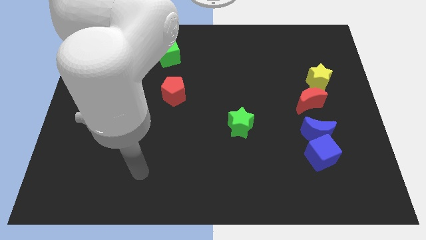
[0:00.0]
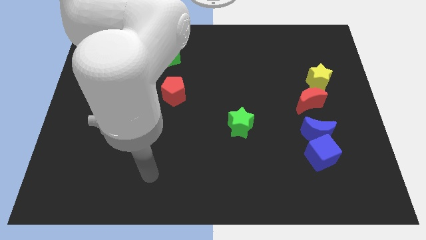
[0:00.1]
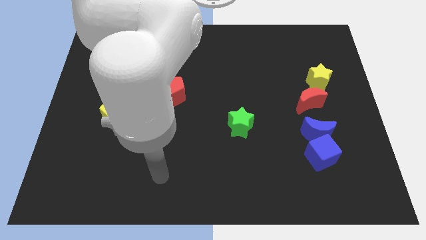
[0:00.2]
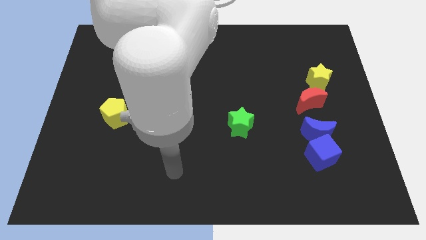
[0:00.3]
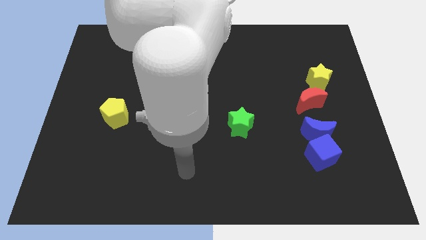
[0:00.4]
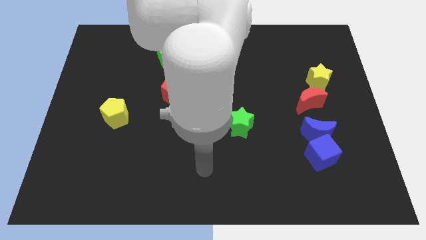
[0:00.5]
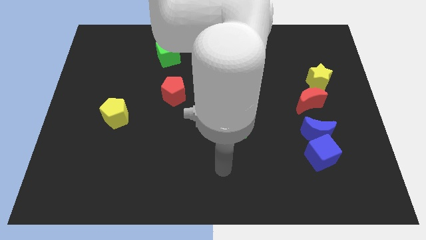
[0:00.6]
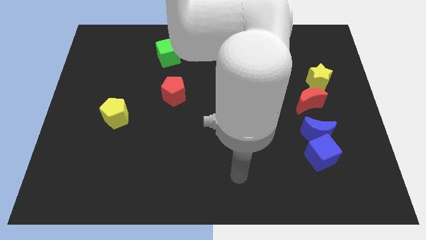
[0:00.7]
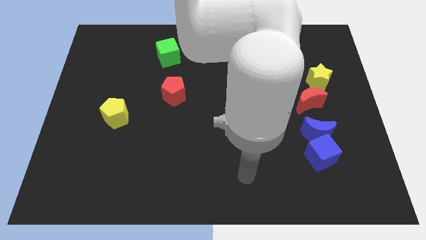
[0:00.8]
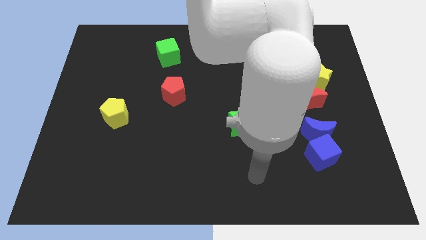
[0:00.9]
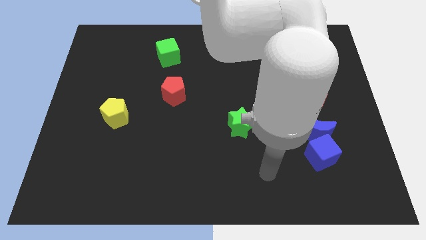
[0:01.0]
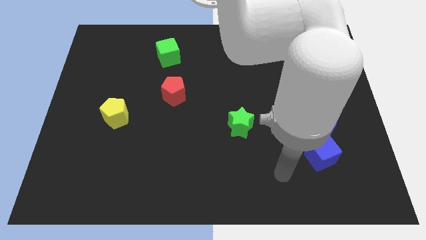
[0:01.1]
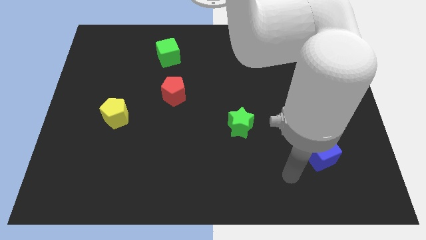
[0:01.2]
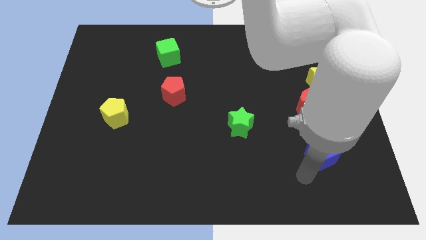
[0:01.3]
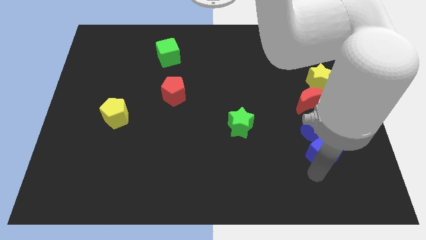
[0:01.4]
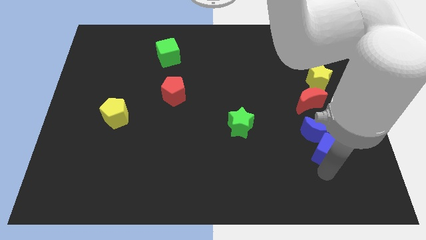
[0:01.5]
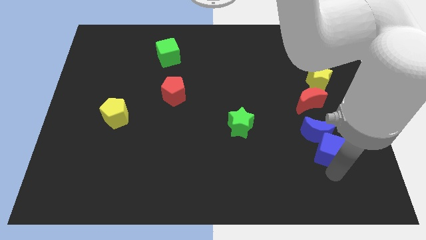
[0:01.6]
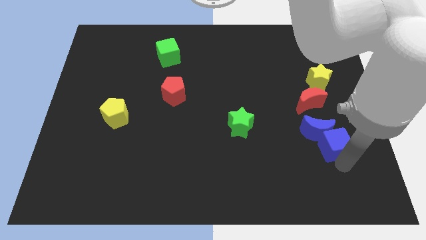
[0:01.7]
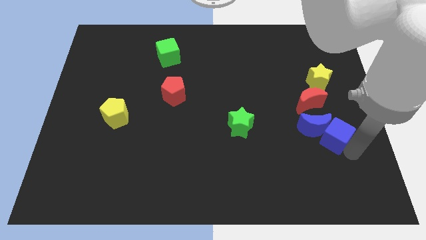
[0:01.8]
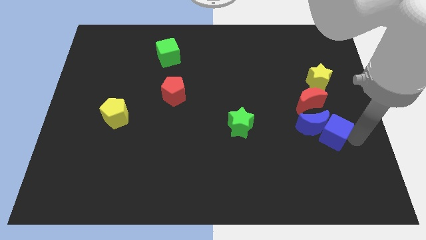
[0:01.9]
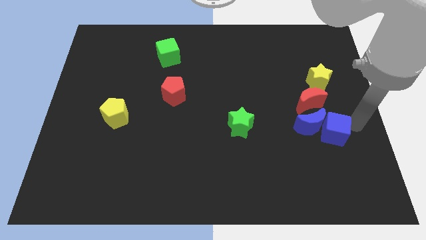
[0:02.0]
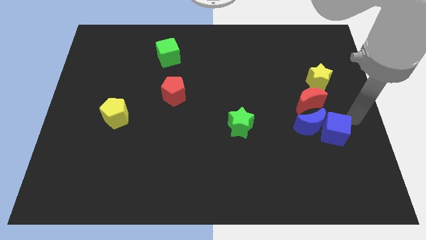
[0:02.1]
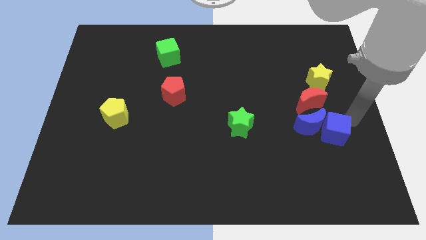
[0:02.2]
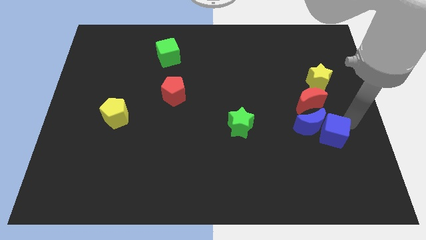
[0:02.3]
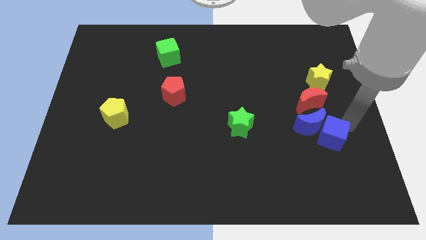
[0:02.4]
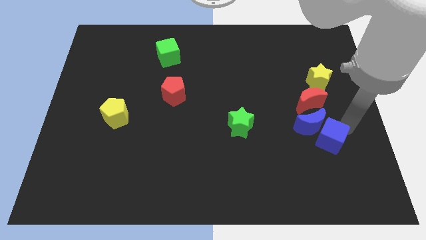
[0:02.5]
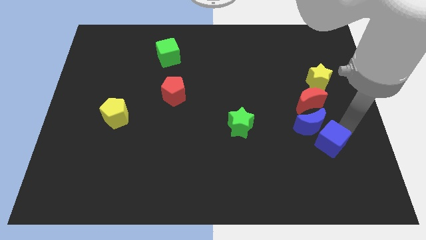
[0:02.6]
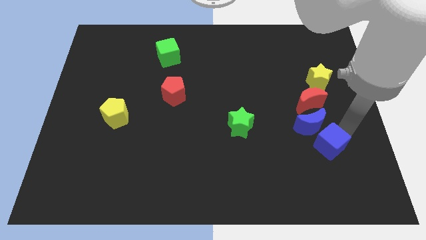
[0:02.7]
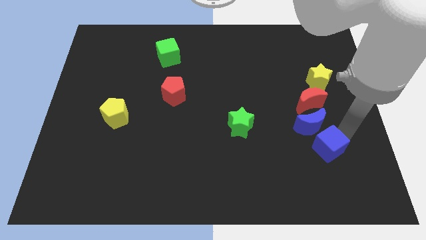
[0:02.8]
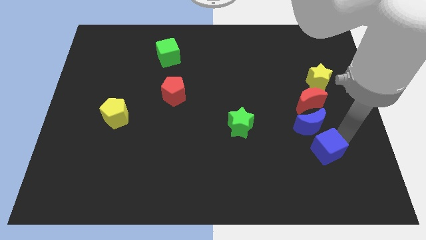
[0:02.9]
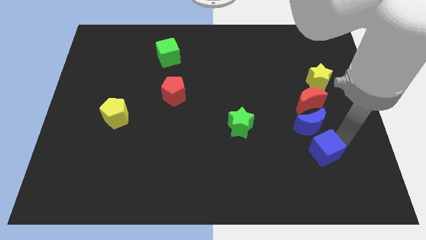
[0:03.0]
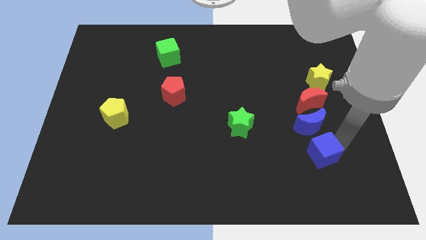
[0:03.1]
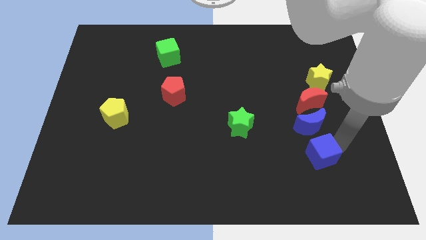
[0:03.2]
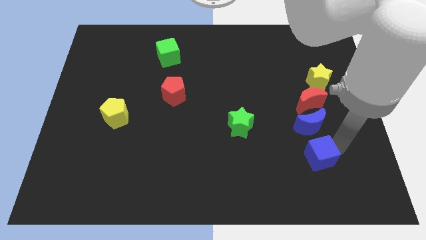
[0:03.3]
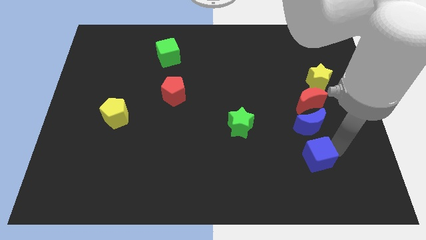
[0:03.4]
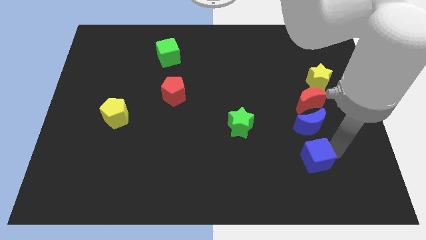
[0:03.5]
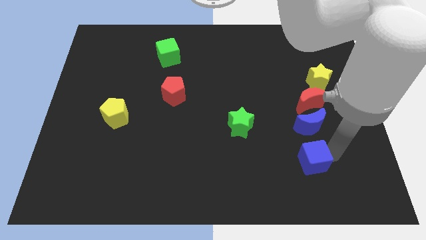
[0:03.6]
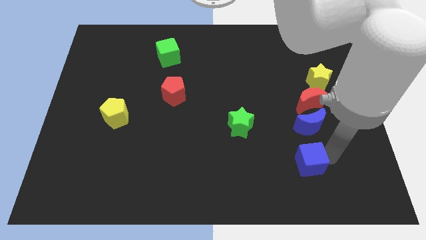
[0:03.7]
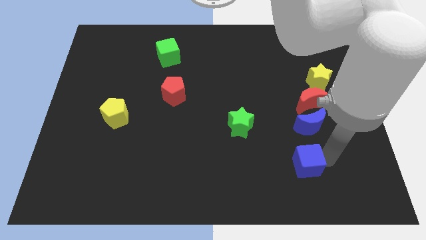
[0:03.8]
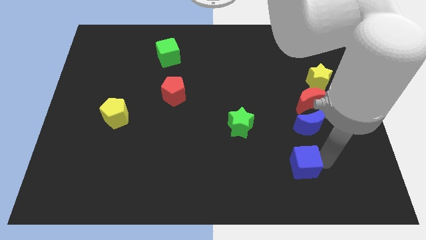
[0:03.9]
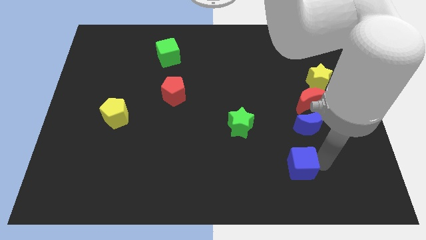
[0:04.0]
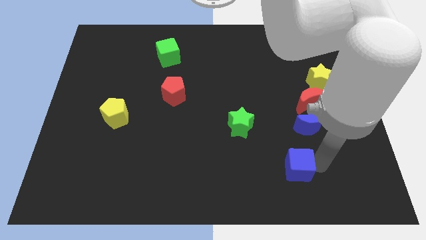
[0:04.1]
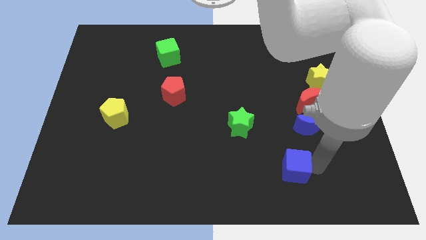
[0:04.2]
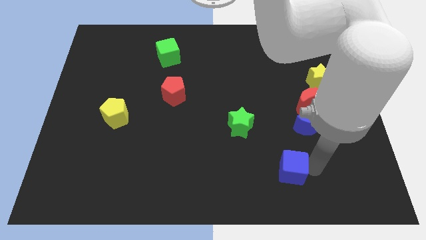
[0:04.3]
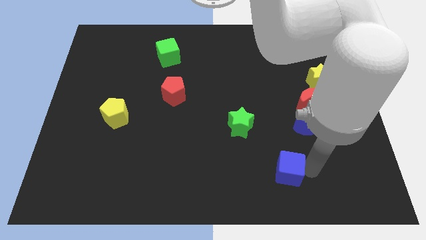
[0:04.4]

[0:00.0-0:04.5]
slide the blue cube a little to the left

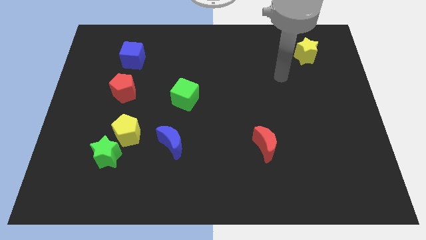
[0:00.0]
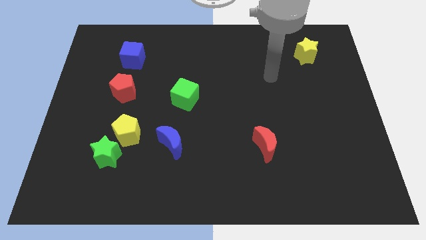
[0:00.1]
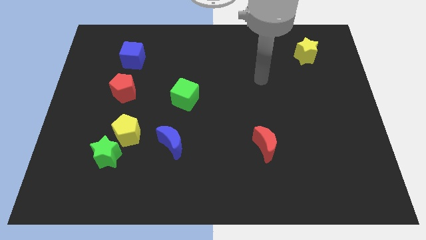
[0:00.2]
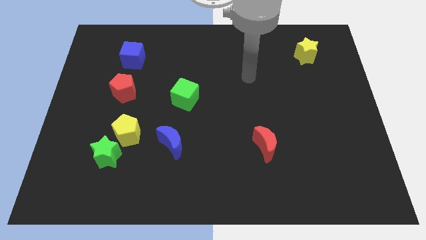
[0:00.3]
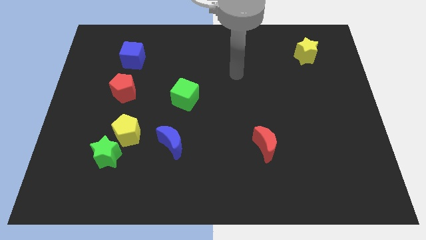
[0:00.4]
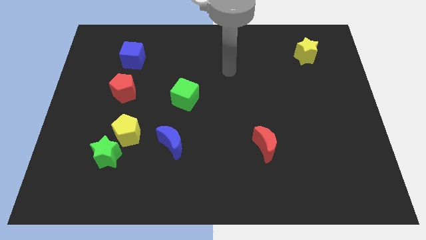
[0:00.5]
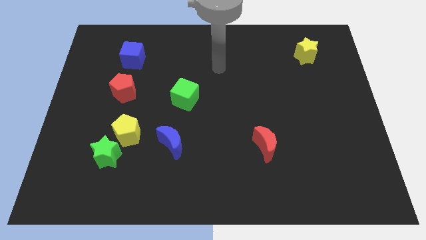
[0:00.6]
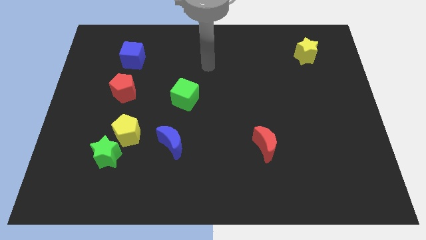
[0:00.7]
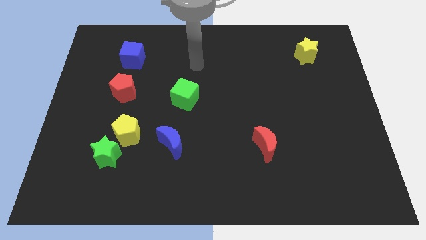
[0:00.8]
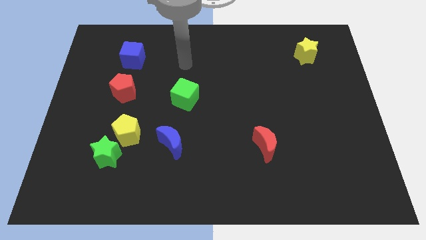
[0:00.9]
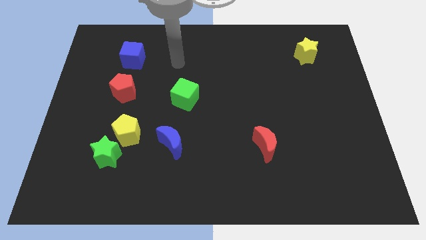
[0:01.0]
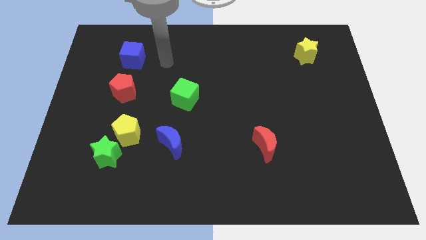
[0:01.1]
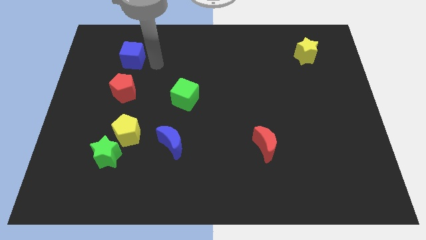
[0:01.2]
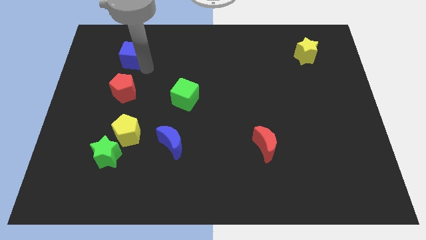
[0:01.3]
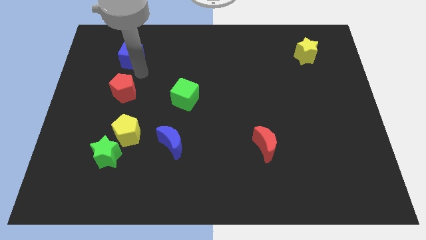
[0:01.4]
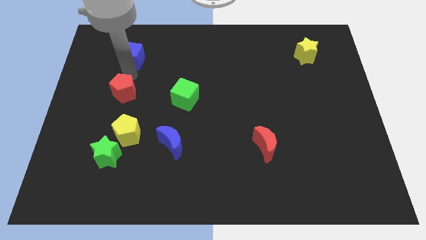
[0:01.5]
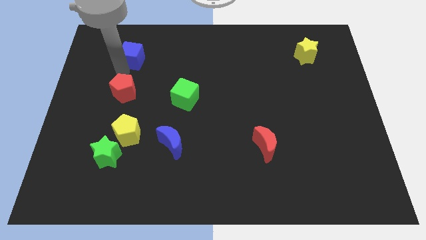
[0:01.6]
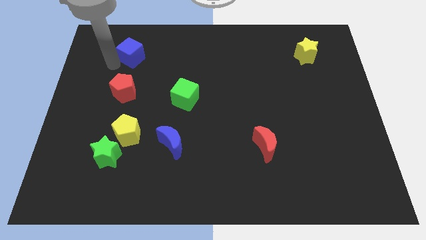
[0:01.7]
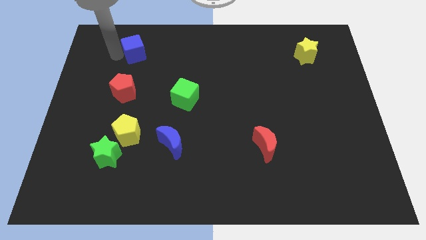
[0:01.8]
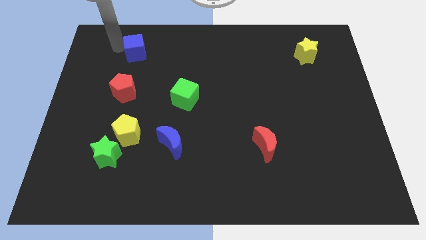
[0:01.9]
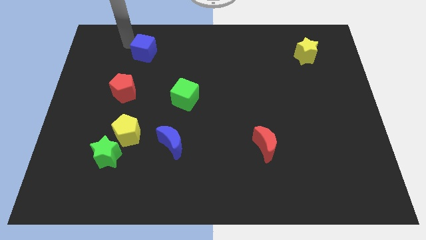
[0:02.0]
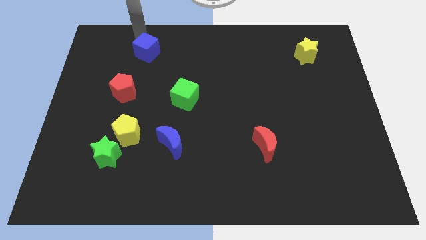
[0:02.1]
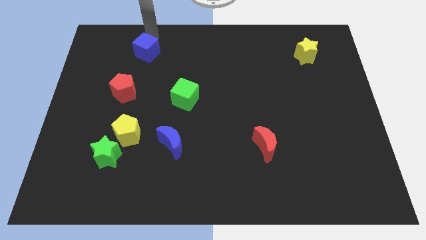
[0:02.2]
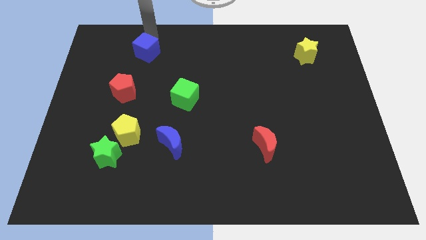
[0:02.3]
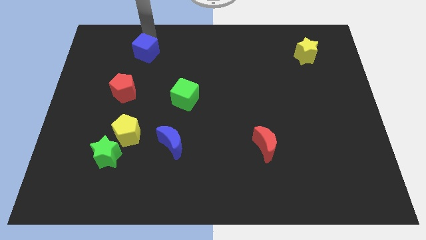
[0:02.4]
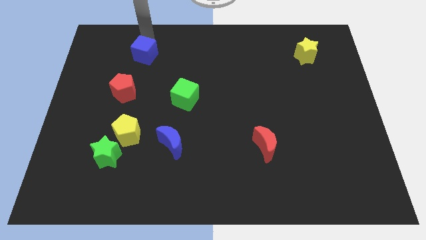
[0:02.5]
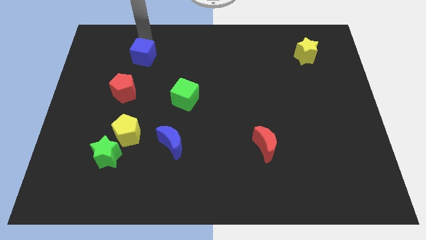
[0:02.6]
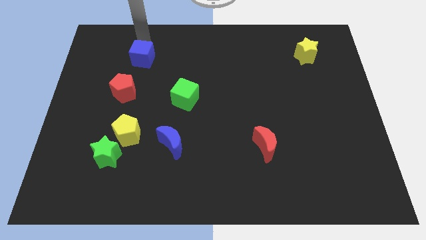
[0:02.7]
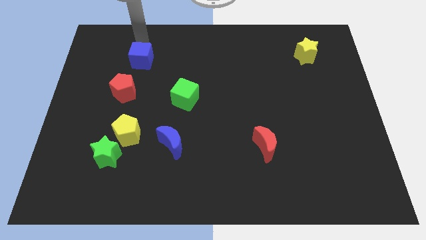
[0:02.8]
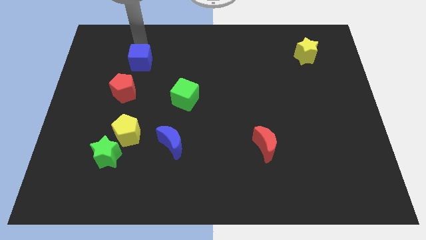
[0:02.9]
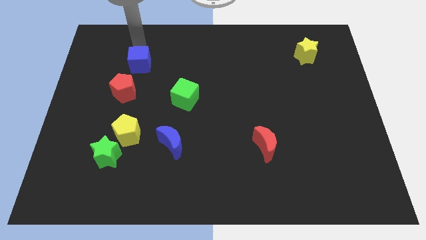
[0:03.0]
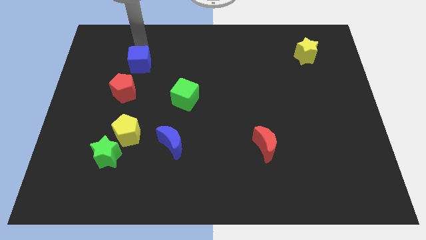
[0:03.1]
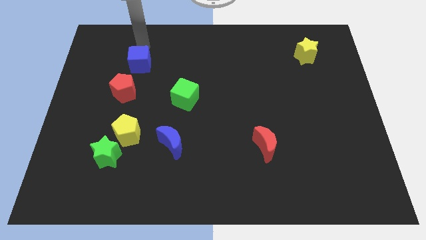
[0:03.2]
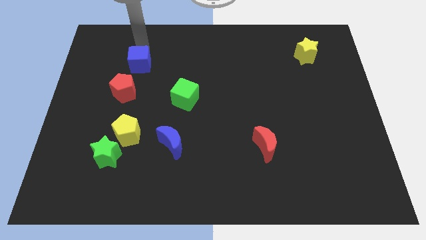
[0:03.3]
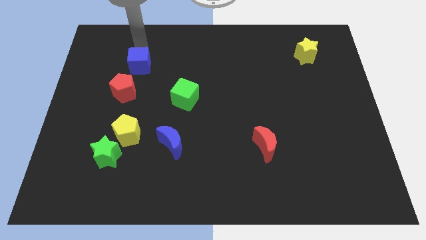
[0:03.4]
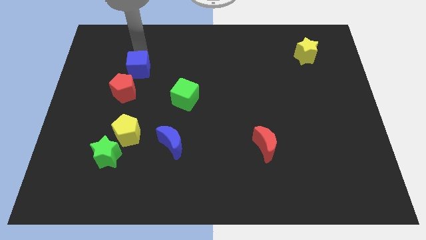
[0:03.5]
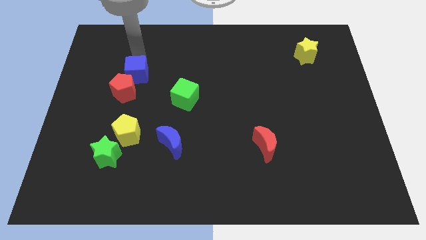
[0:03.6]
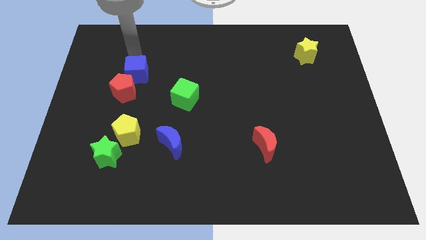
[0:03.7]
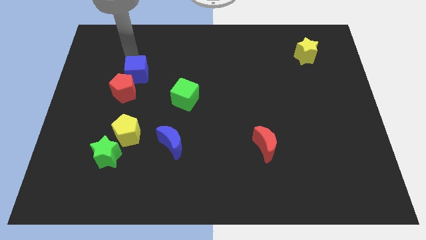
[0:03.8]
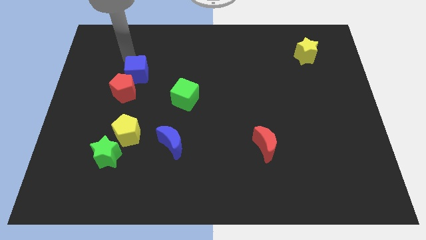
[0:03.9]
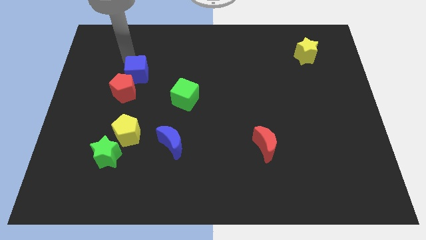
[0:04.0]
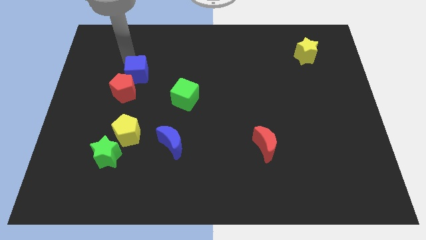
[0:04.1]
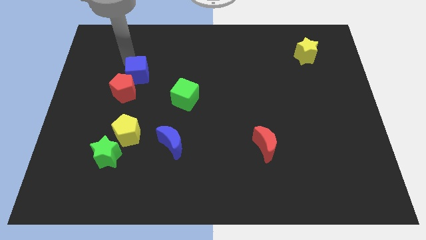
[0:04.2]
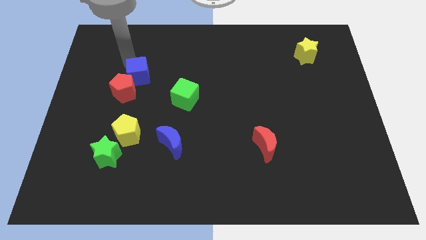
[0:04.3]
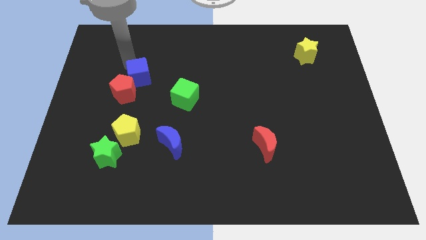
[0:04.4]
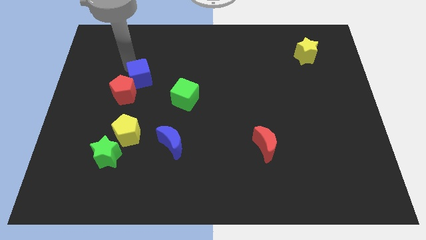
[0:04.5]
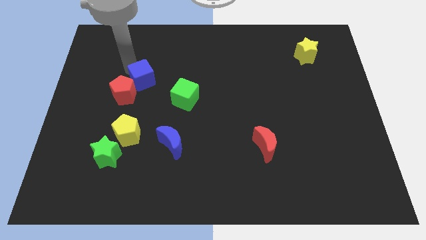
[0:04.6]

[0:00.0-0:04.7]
slightly slide the blue cube down
